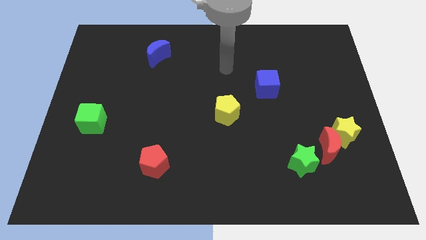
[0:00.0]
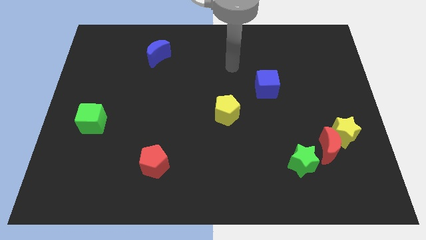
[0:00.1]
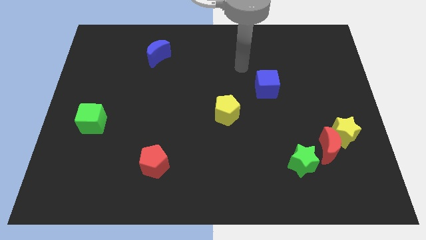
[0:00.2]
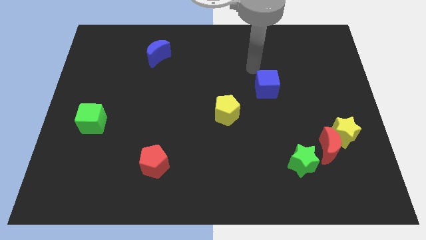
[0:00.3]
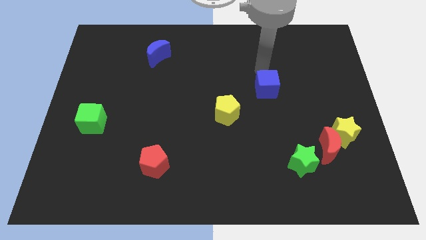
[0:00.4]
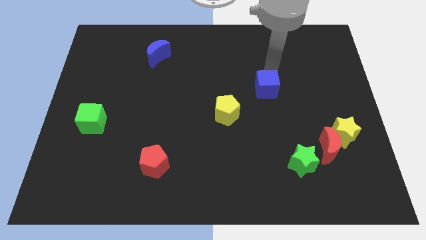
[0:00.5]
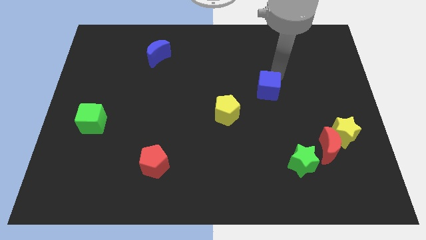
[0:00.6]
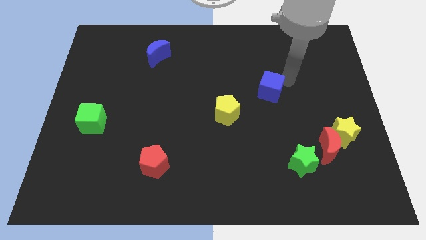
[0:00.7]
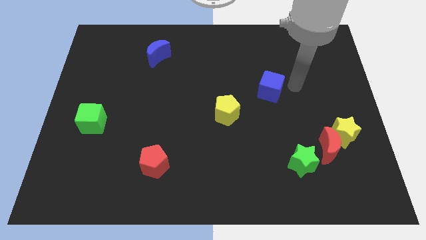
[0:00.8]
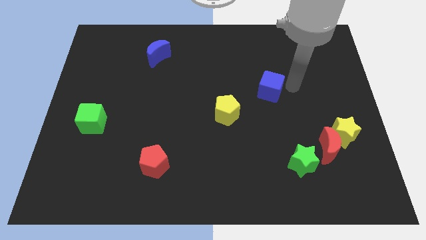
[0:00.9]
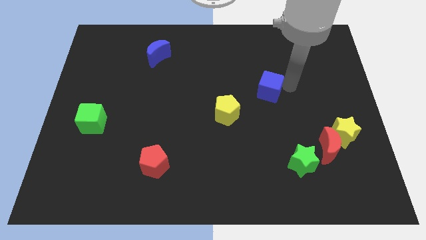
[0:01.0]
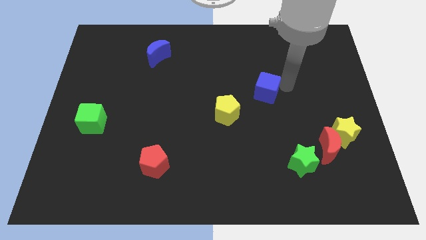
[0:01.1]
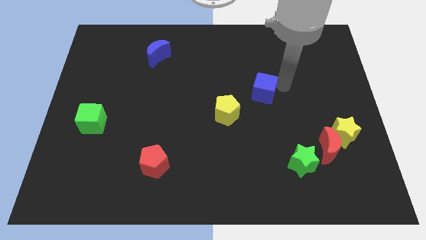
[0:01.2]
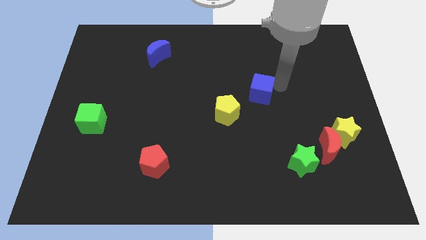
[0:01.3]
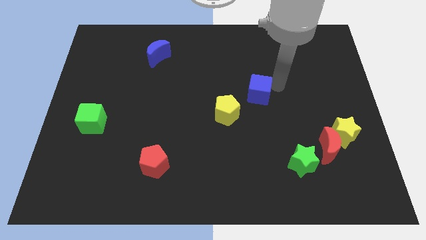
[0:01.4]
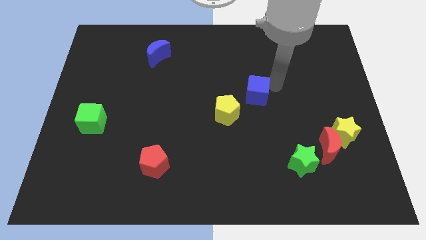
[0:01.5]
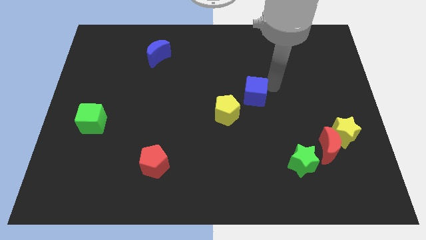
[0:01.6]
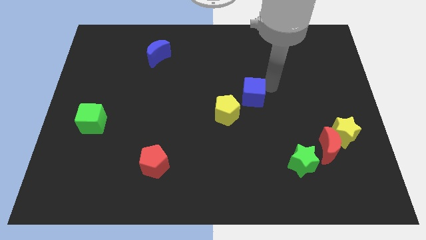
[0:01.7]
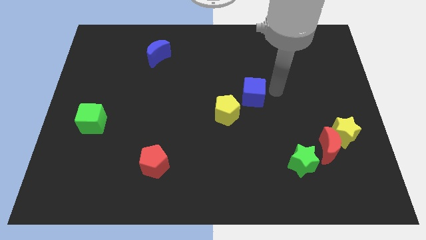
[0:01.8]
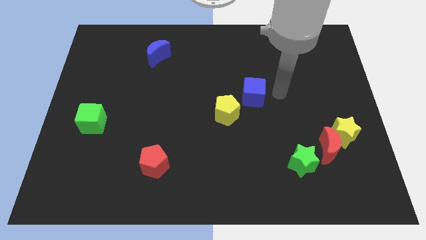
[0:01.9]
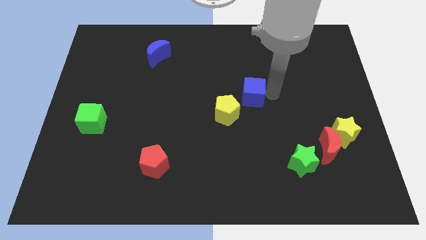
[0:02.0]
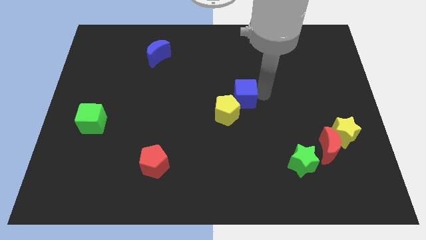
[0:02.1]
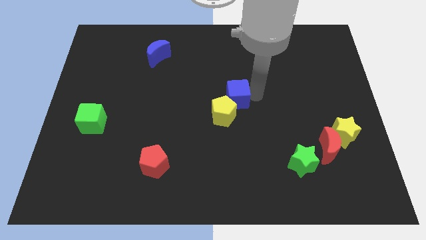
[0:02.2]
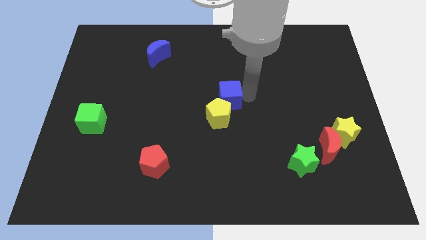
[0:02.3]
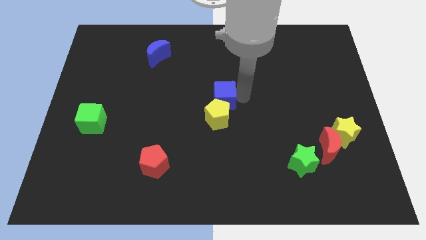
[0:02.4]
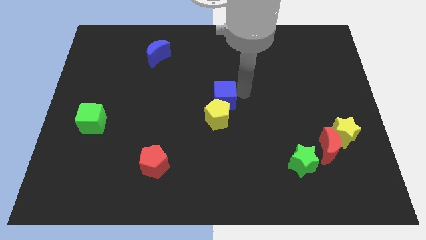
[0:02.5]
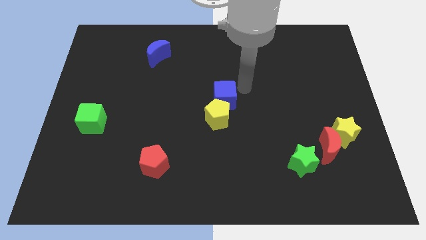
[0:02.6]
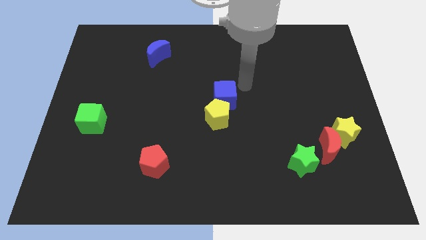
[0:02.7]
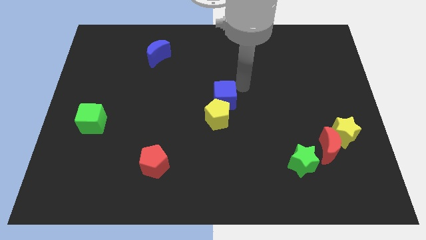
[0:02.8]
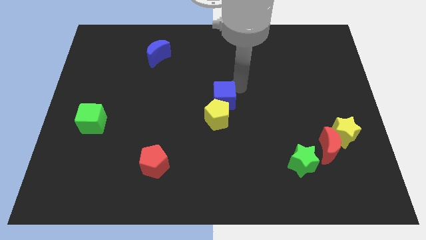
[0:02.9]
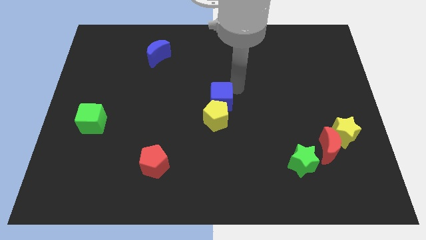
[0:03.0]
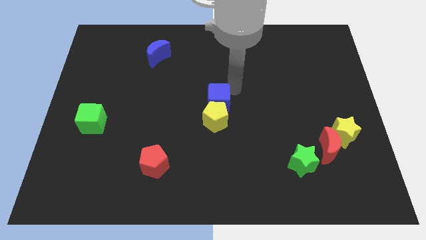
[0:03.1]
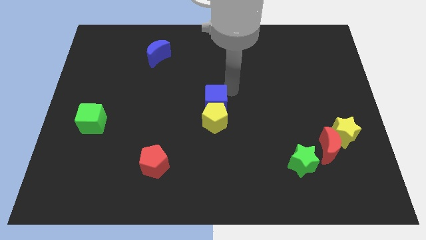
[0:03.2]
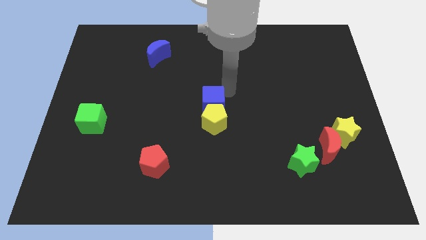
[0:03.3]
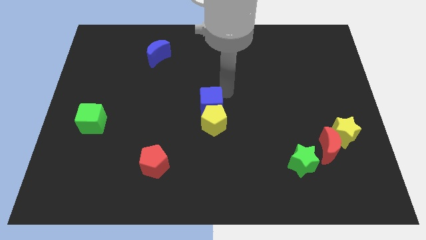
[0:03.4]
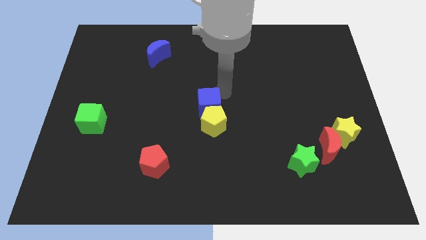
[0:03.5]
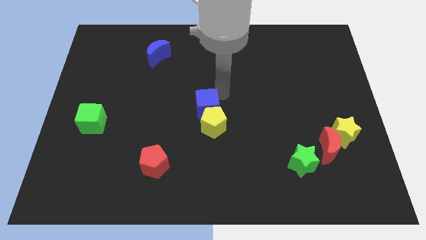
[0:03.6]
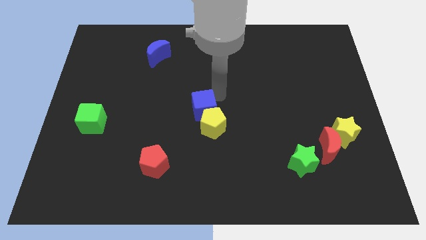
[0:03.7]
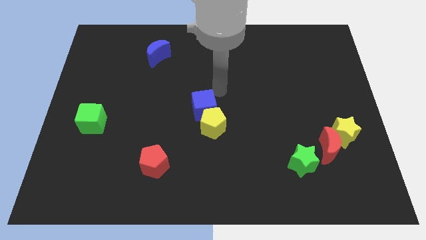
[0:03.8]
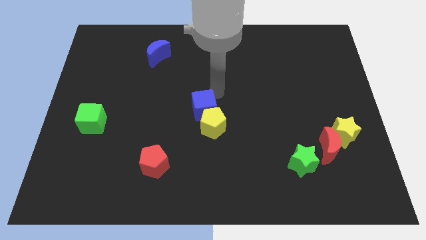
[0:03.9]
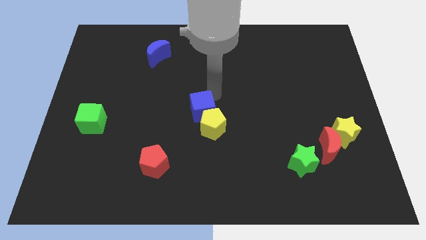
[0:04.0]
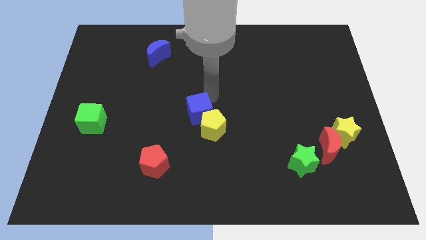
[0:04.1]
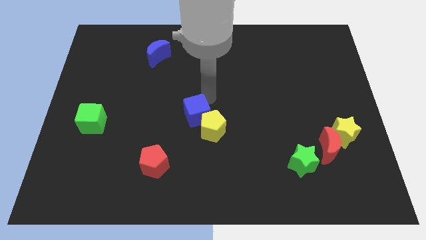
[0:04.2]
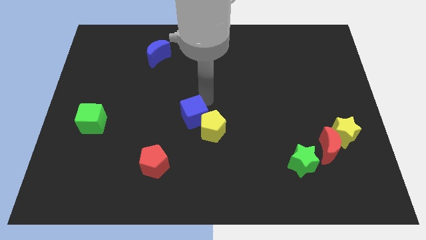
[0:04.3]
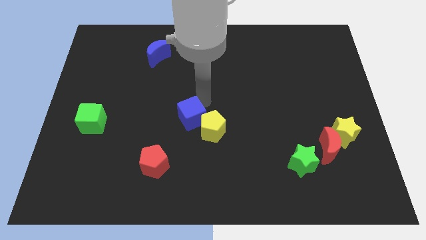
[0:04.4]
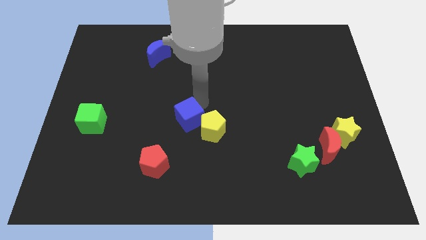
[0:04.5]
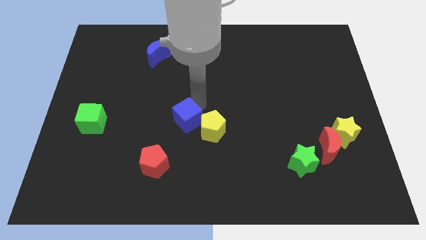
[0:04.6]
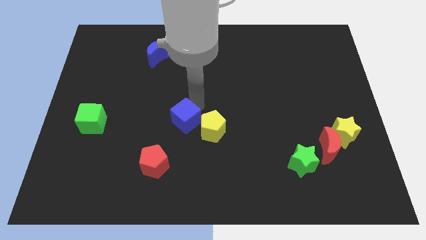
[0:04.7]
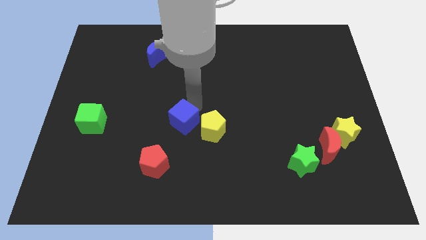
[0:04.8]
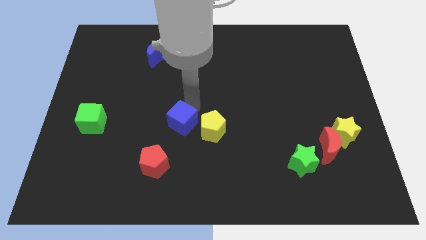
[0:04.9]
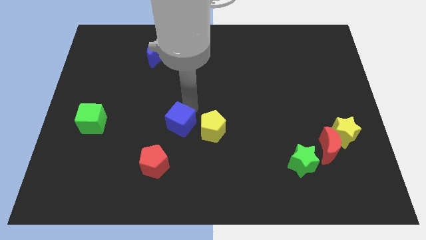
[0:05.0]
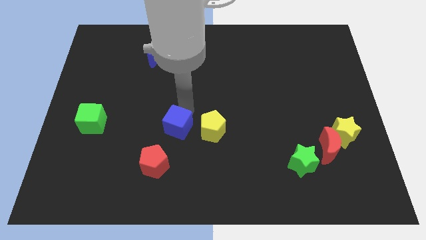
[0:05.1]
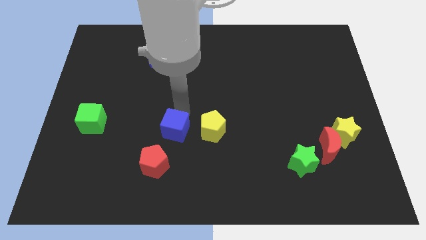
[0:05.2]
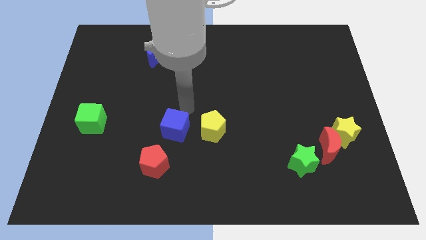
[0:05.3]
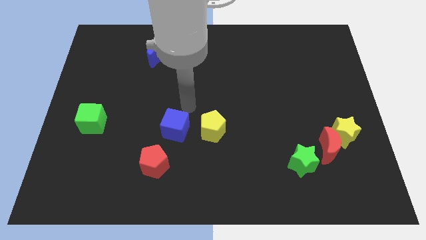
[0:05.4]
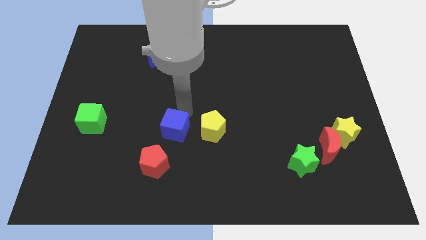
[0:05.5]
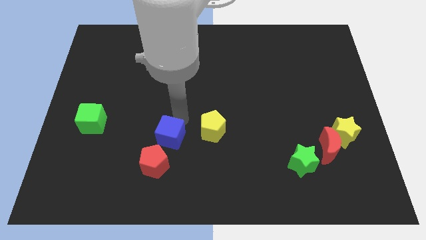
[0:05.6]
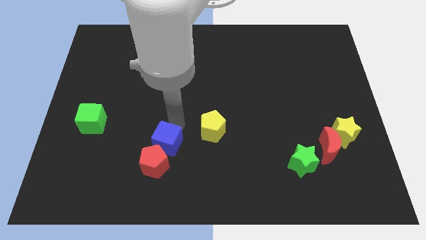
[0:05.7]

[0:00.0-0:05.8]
slide the blue cube towards the red pentagon

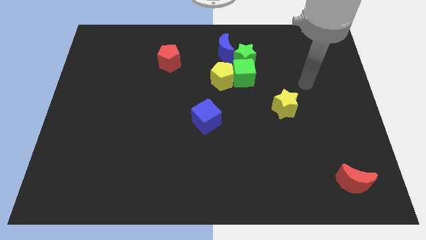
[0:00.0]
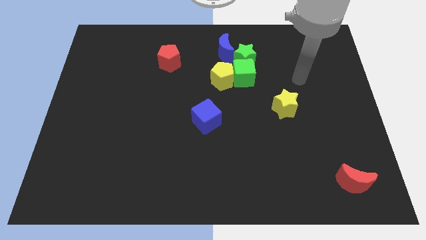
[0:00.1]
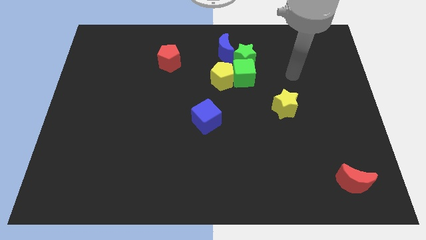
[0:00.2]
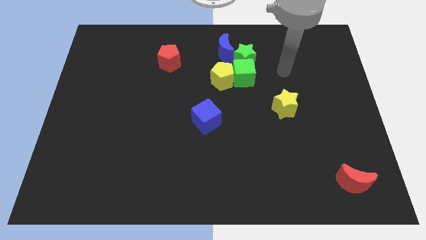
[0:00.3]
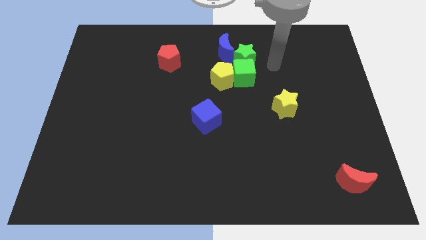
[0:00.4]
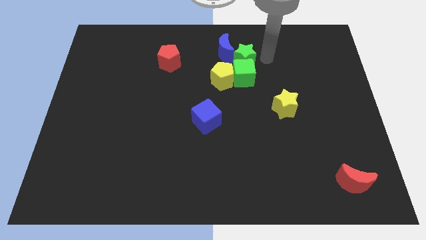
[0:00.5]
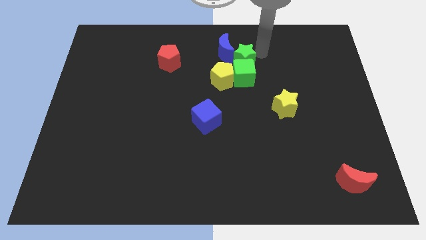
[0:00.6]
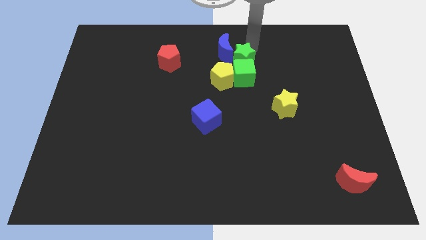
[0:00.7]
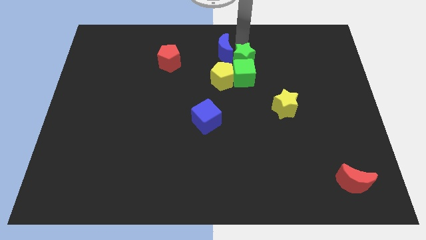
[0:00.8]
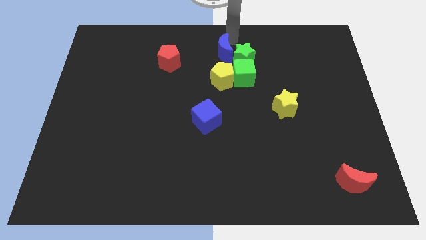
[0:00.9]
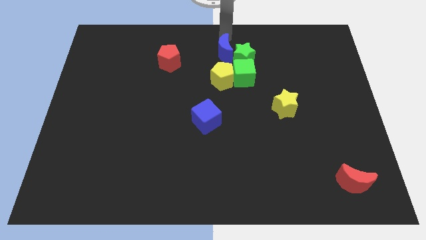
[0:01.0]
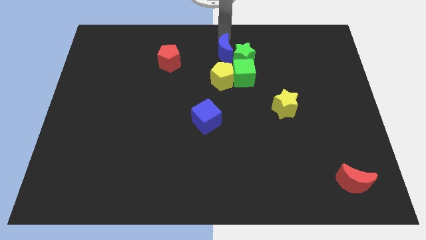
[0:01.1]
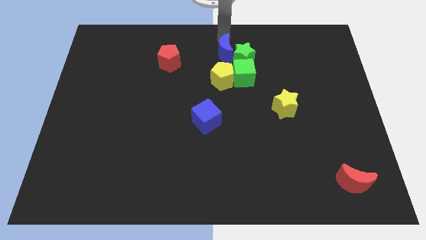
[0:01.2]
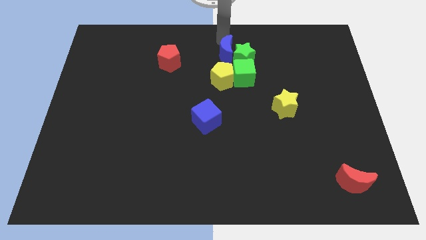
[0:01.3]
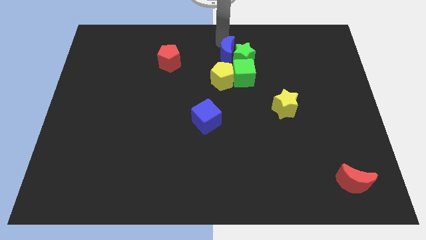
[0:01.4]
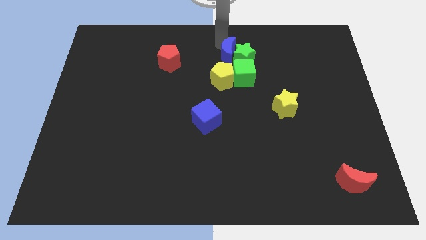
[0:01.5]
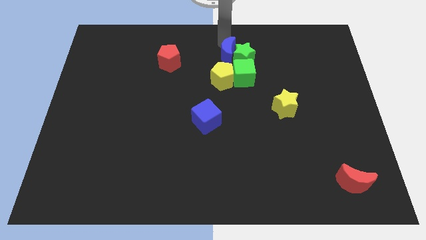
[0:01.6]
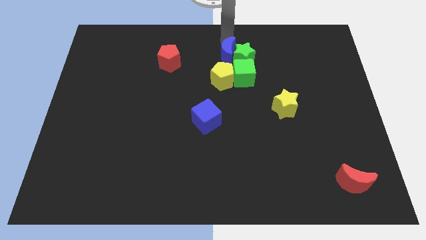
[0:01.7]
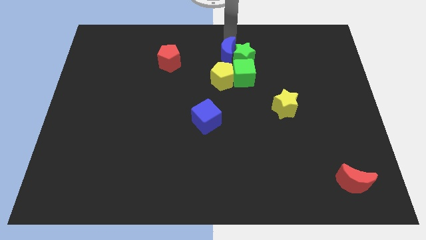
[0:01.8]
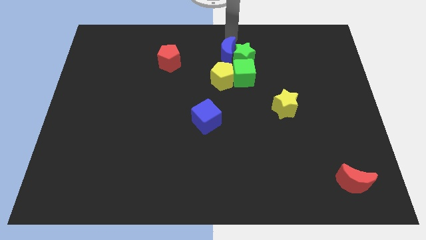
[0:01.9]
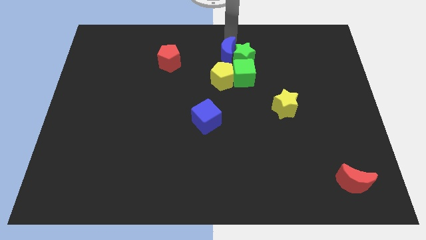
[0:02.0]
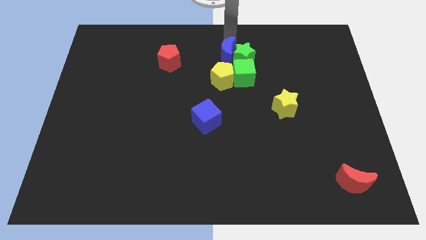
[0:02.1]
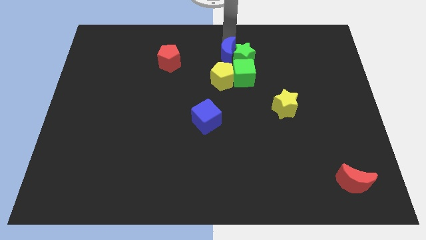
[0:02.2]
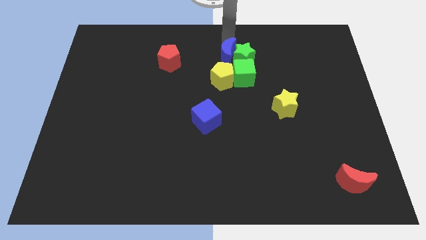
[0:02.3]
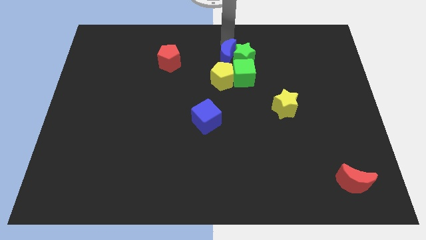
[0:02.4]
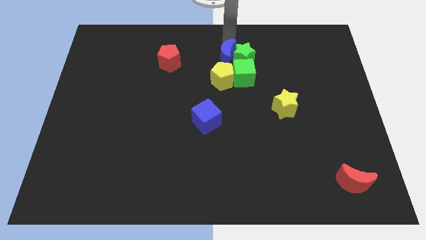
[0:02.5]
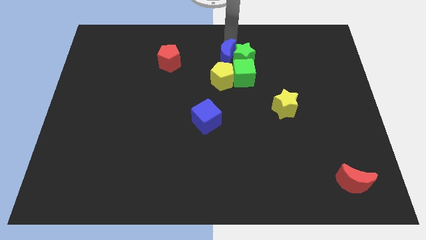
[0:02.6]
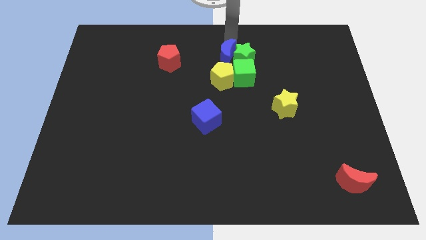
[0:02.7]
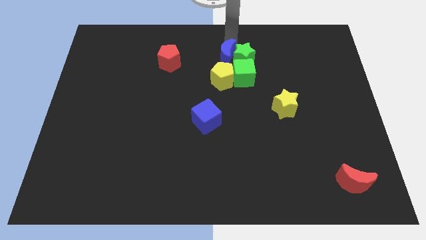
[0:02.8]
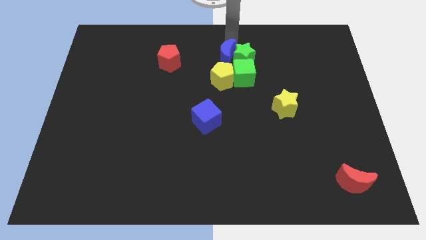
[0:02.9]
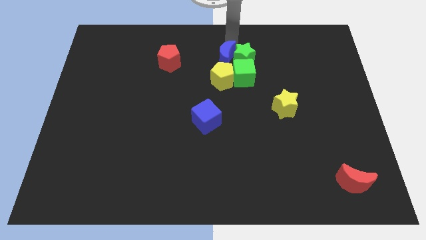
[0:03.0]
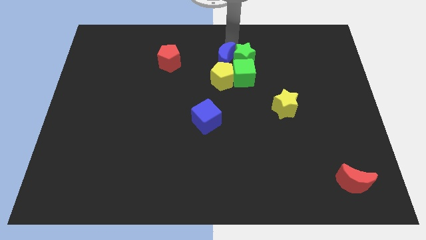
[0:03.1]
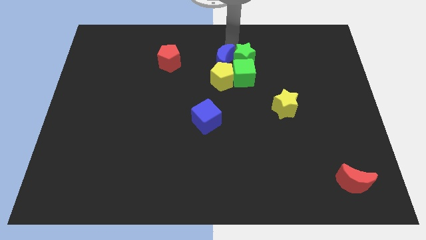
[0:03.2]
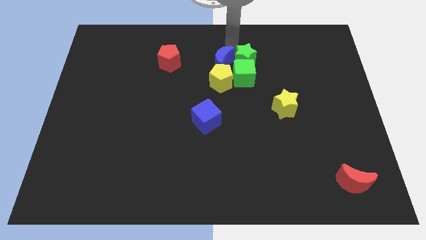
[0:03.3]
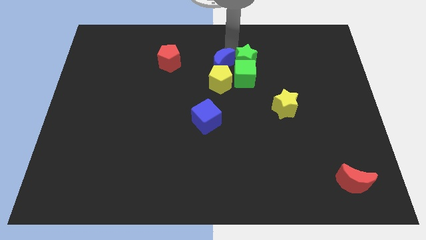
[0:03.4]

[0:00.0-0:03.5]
push the blue moon to the yellow pentagon
